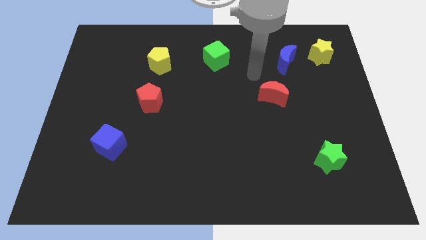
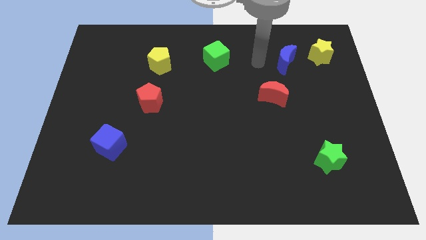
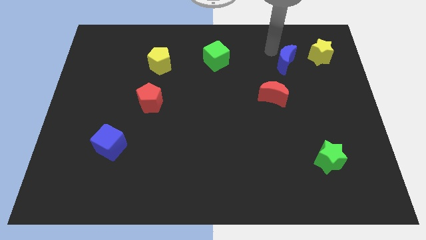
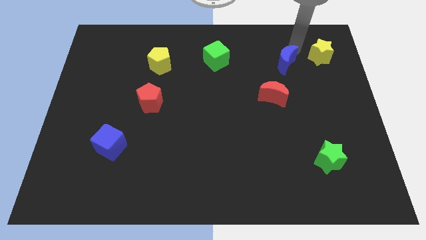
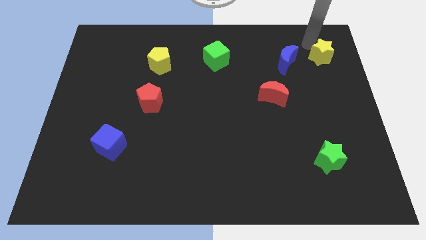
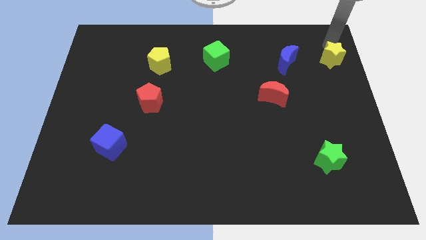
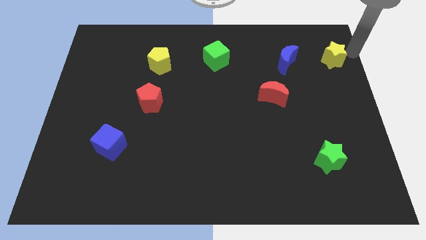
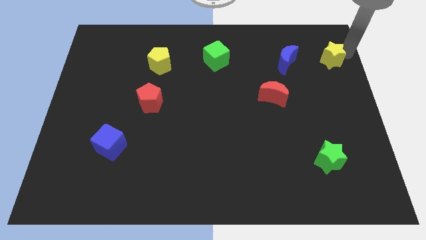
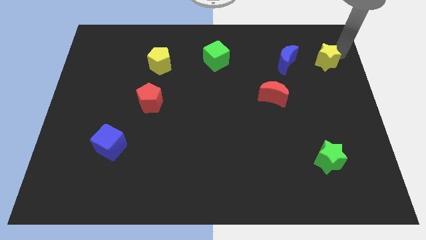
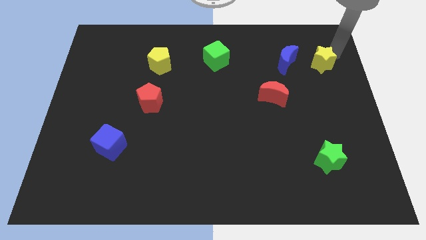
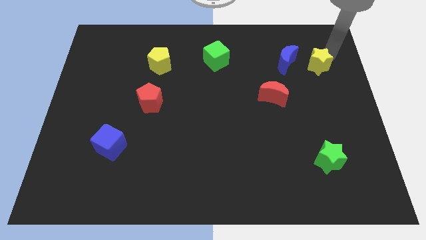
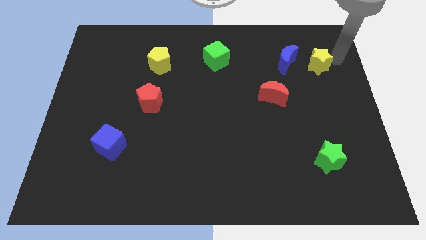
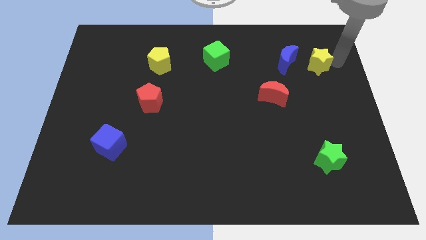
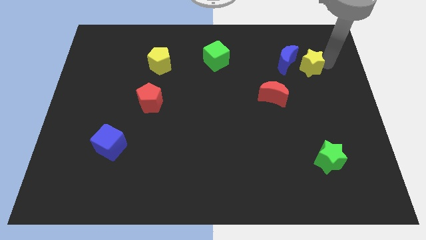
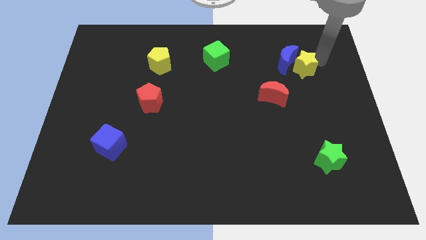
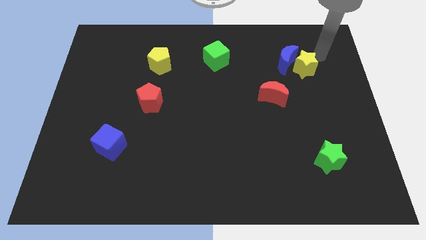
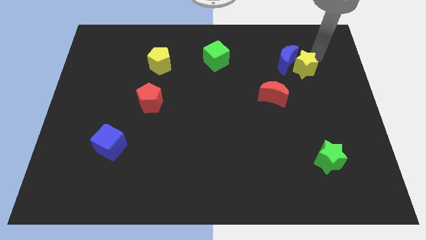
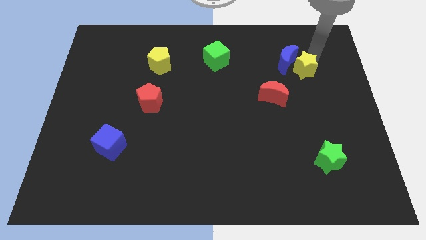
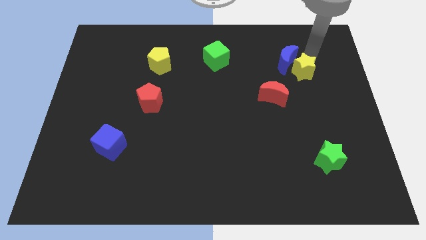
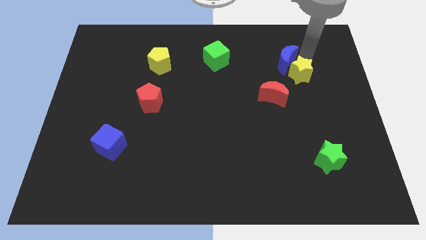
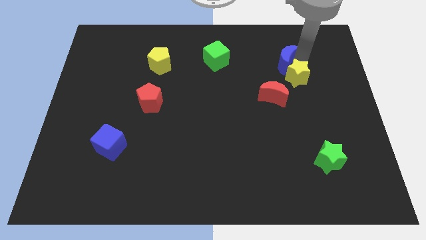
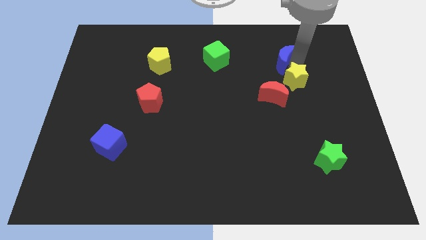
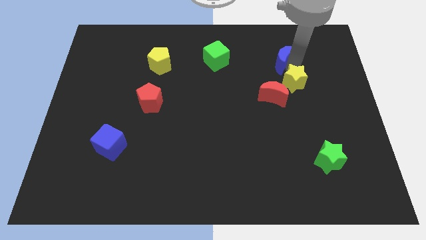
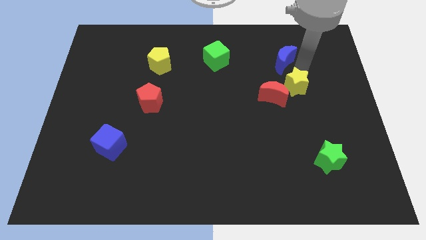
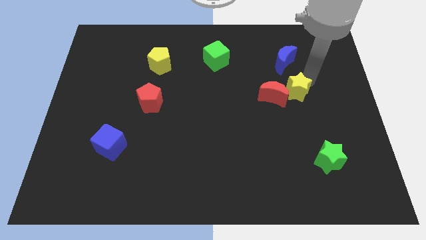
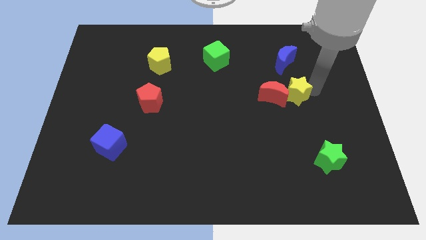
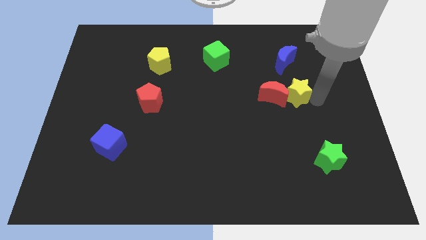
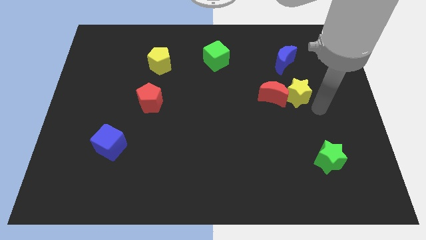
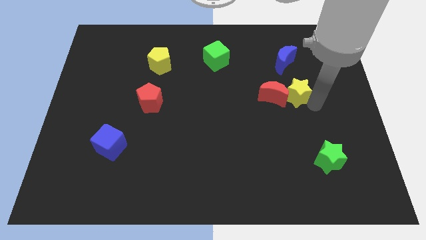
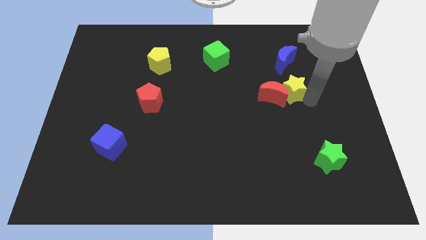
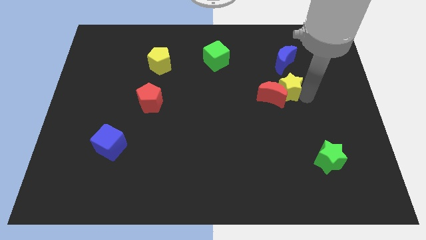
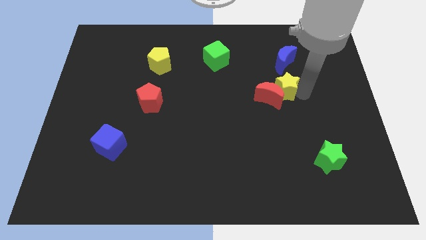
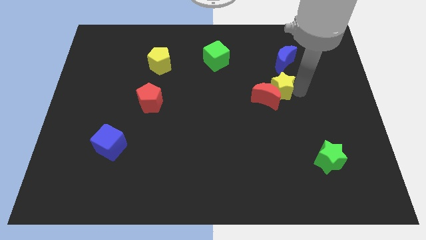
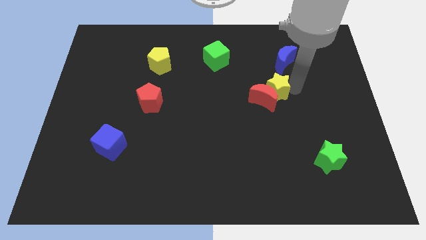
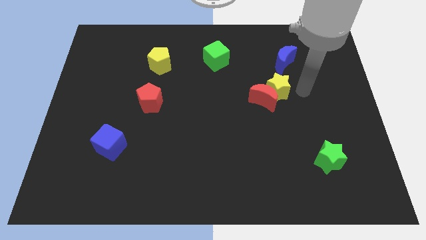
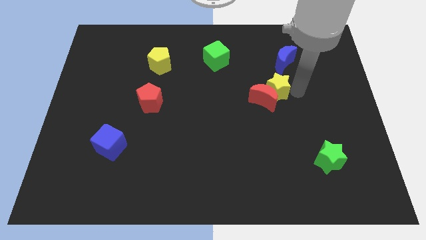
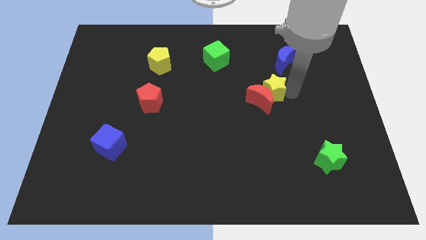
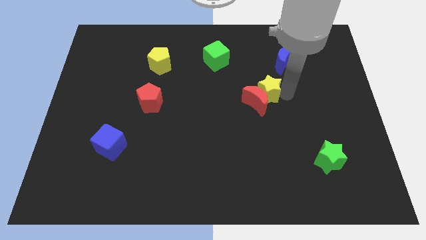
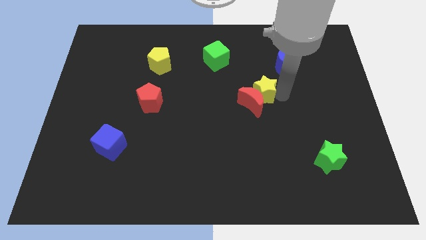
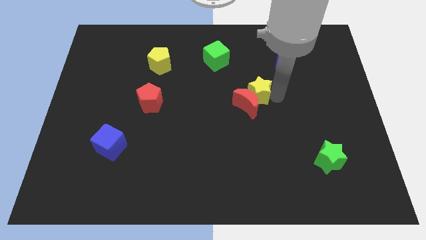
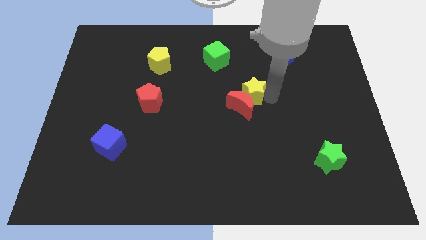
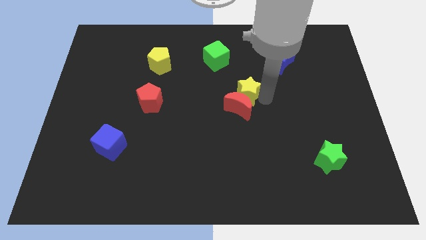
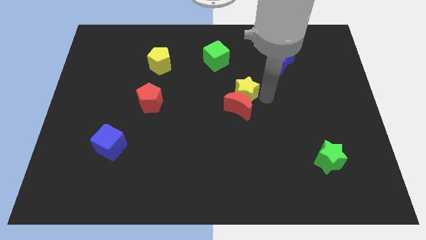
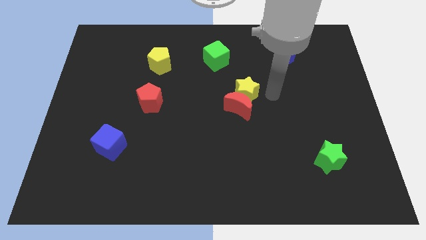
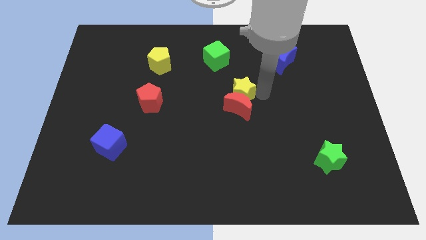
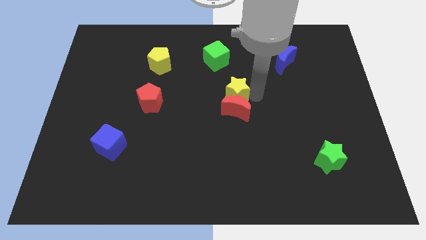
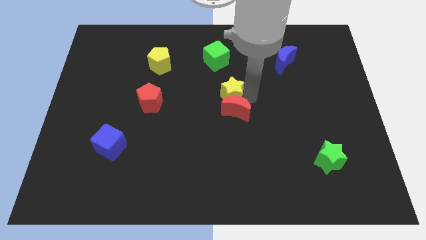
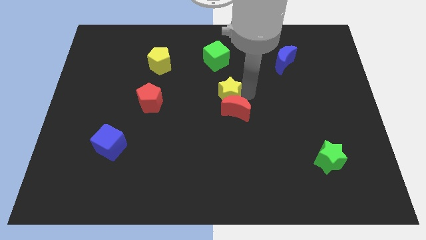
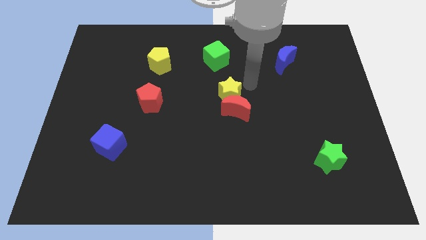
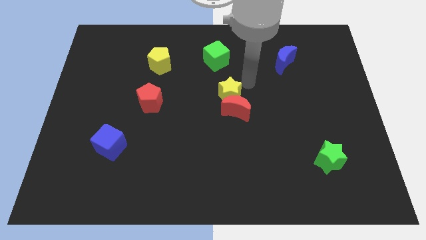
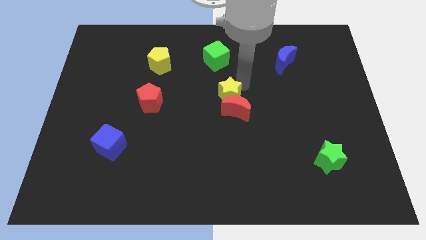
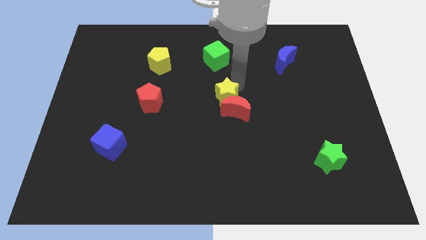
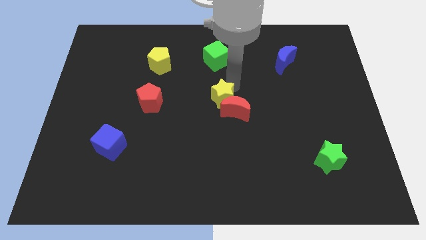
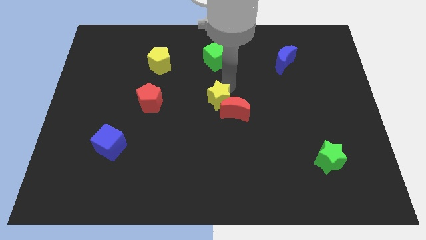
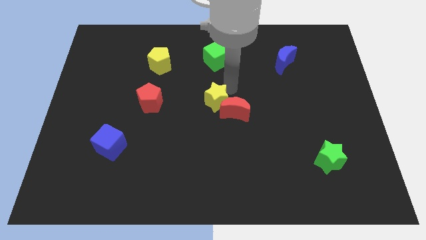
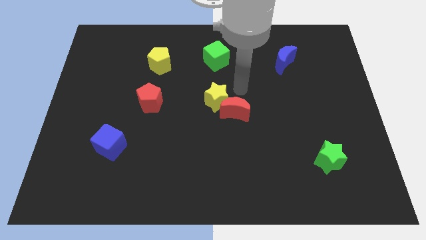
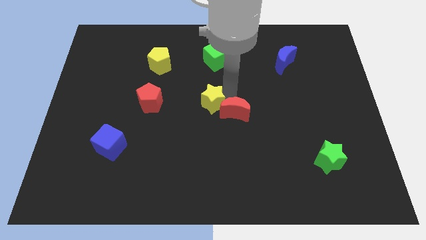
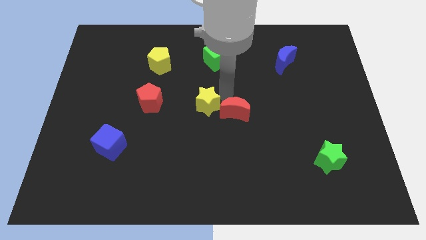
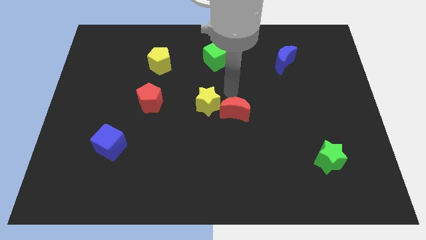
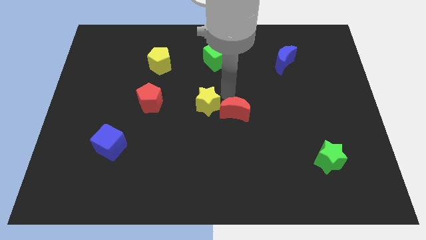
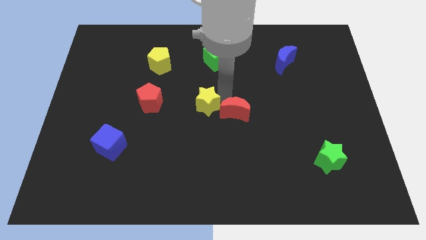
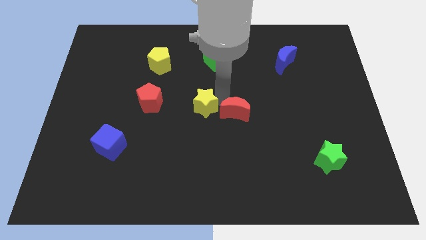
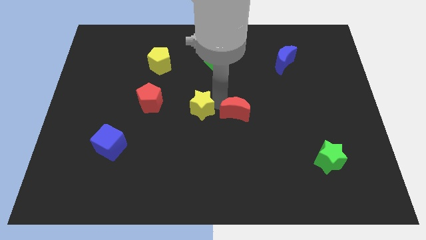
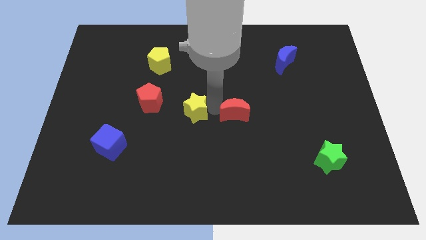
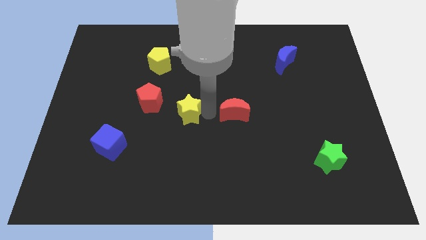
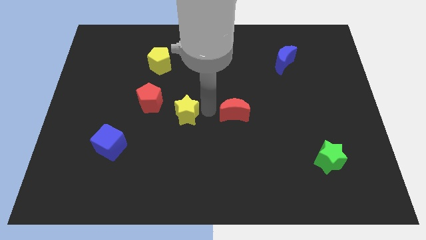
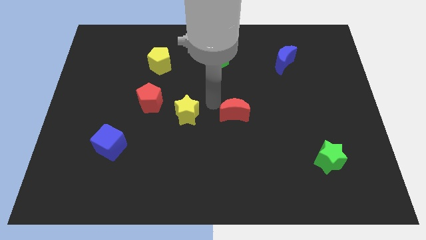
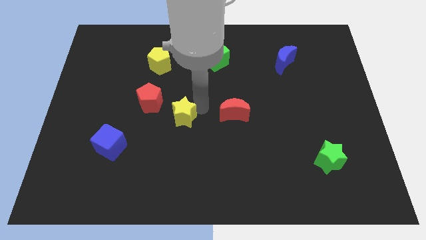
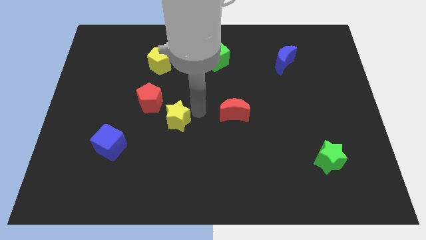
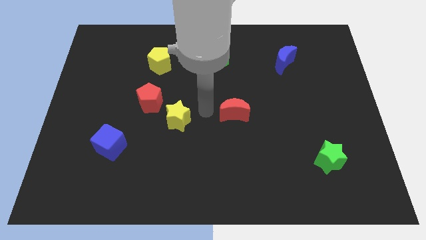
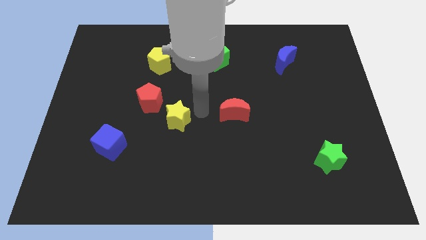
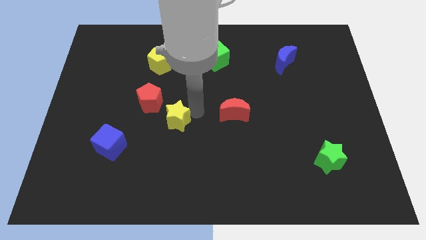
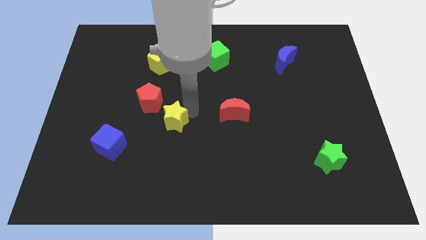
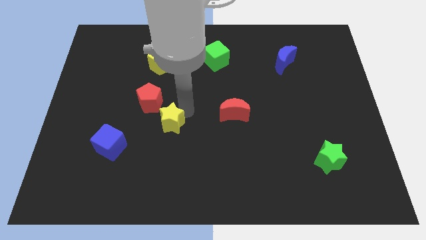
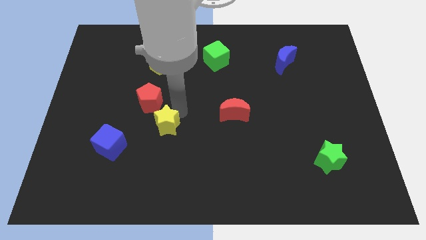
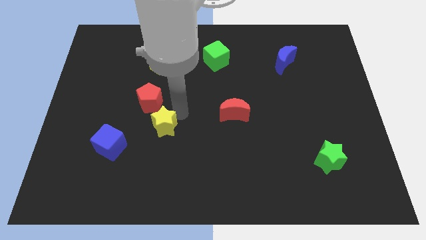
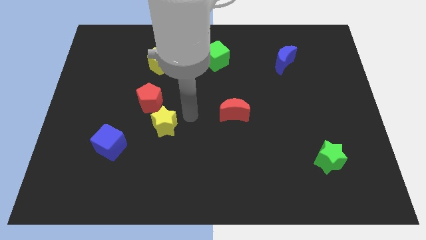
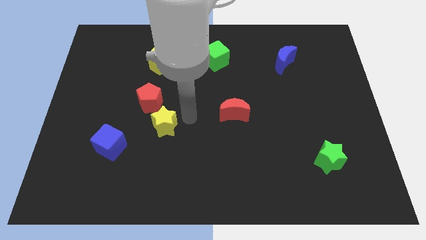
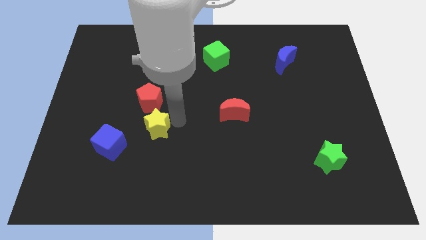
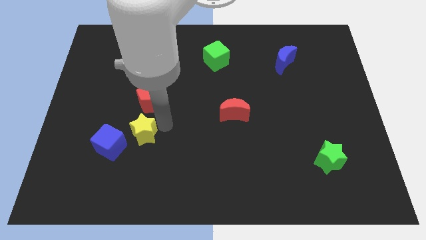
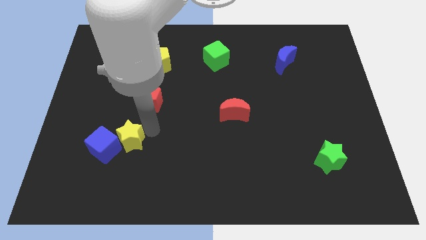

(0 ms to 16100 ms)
slide the yellow star next to the blue cube
